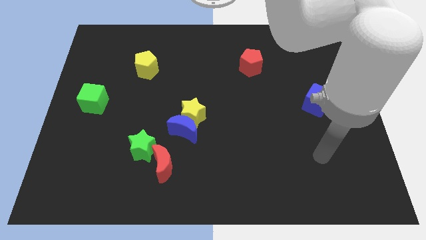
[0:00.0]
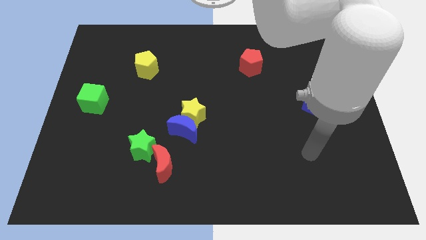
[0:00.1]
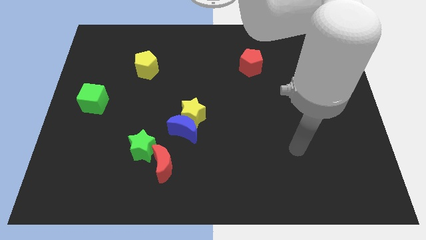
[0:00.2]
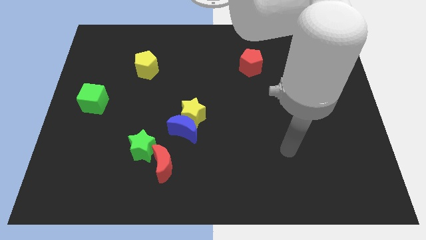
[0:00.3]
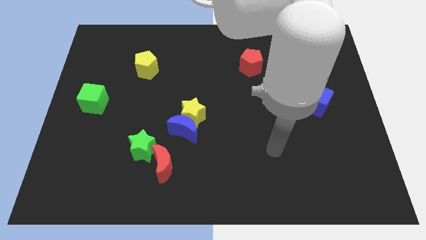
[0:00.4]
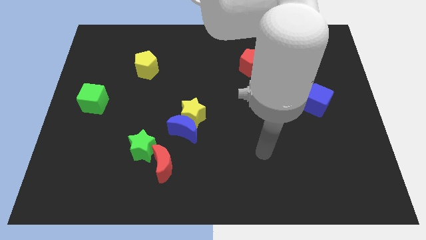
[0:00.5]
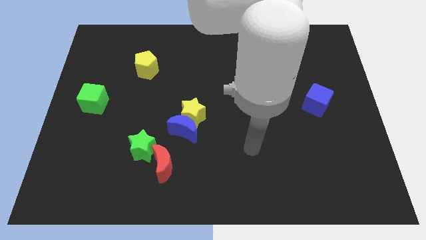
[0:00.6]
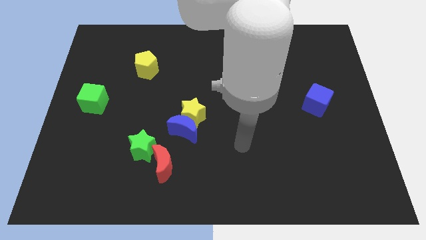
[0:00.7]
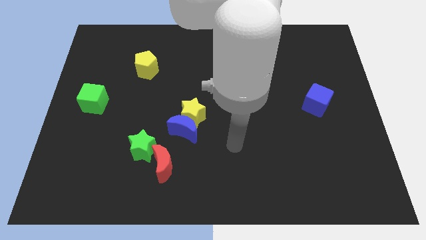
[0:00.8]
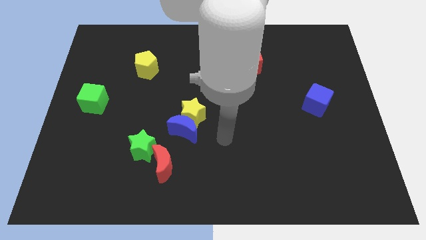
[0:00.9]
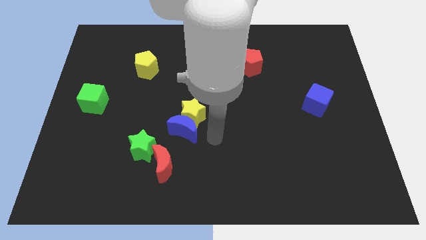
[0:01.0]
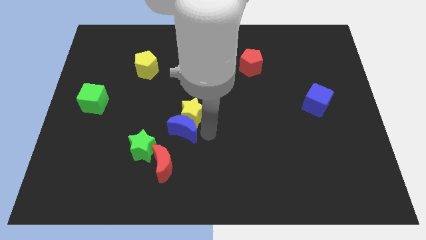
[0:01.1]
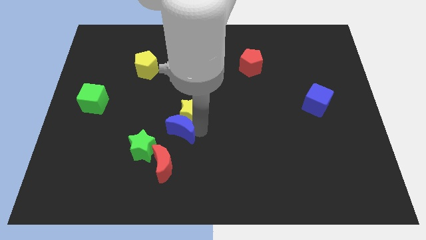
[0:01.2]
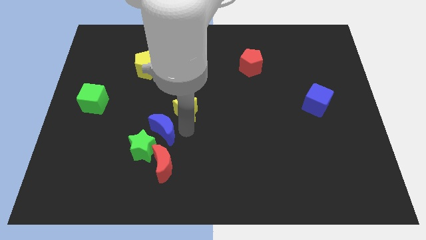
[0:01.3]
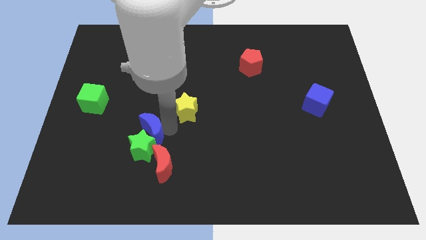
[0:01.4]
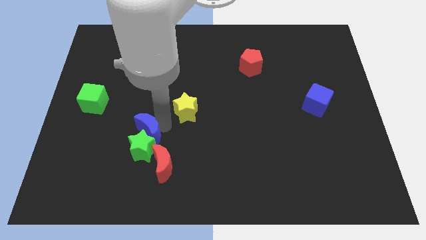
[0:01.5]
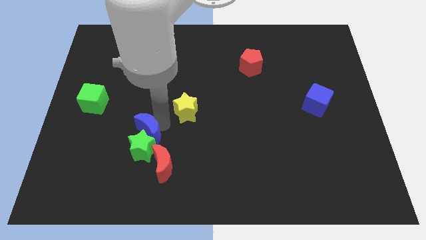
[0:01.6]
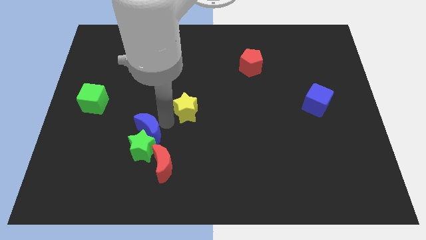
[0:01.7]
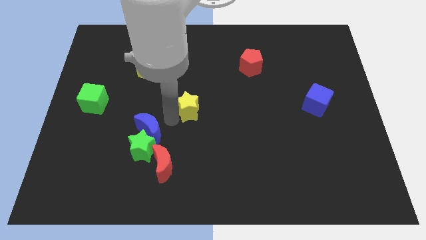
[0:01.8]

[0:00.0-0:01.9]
separate the yellow star from the blue moon

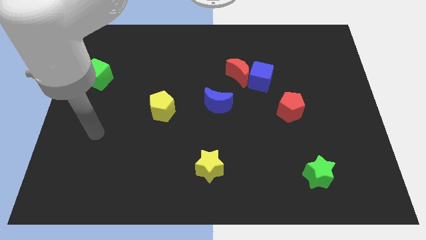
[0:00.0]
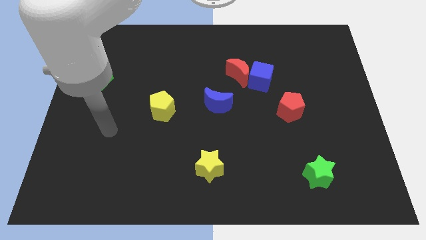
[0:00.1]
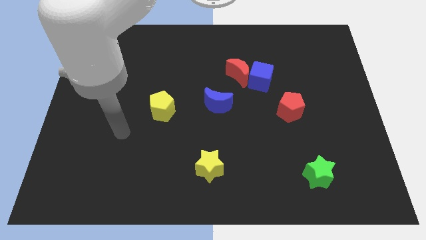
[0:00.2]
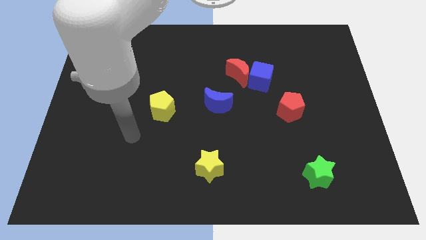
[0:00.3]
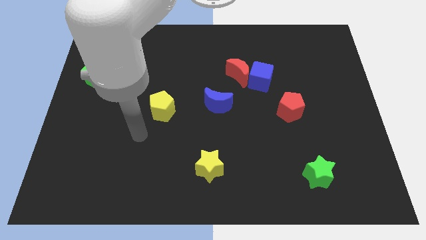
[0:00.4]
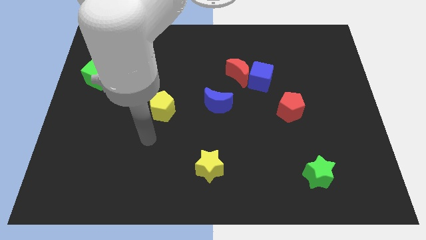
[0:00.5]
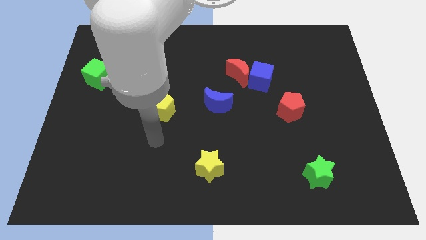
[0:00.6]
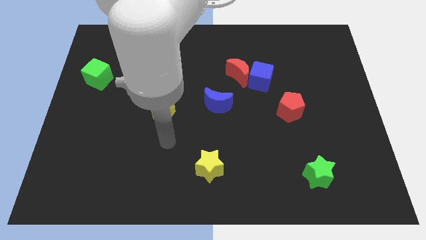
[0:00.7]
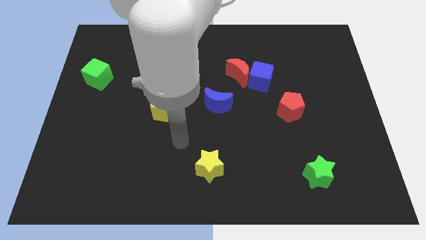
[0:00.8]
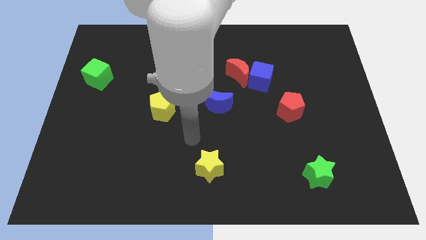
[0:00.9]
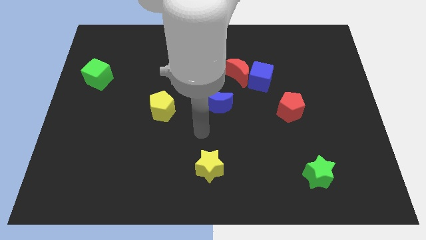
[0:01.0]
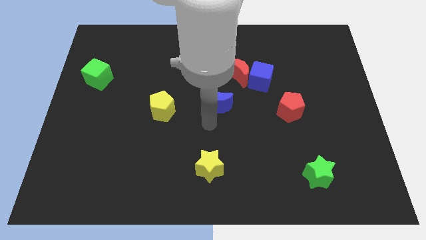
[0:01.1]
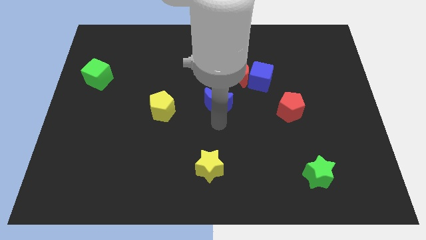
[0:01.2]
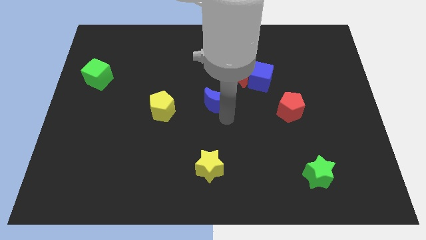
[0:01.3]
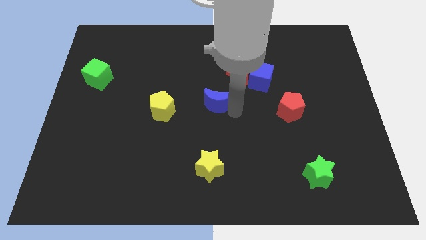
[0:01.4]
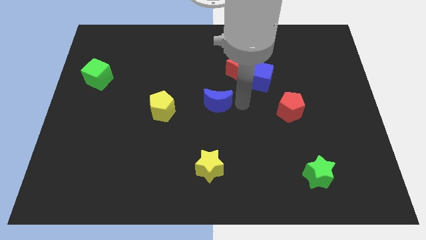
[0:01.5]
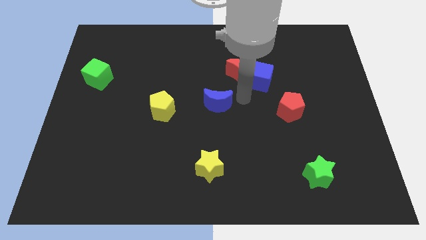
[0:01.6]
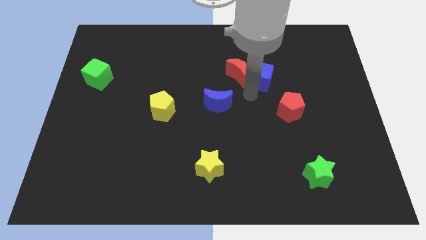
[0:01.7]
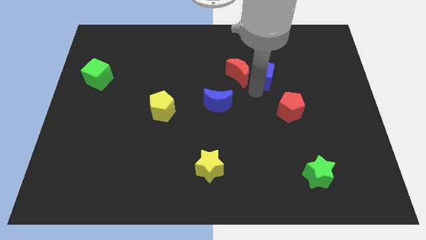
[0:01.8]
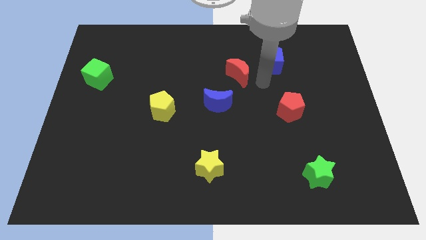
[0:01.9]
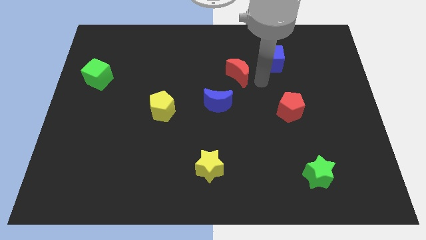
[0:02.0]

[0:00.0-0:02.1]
pull the red moon apart from the blue cube

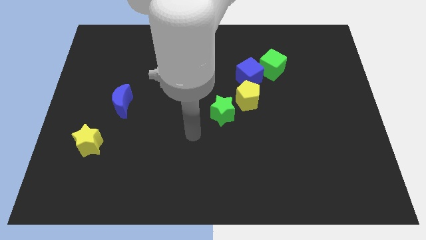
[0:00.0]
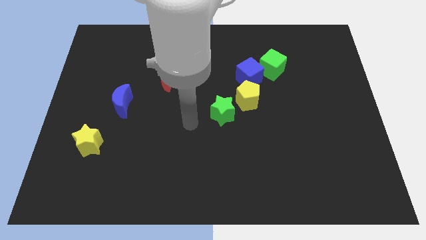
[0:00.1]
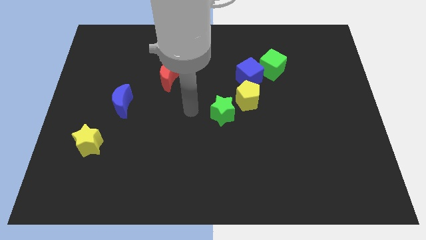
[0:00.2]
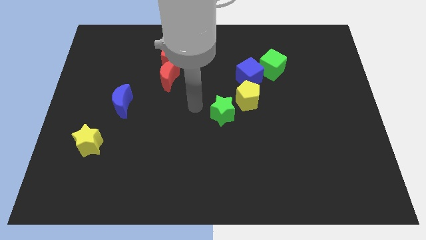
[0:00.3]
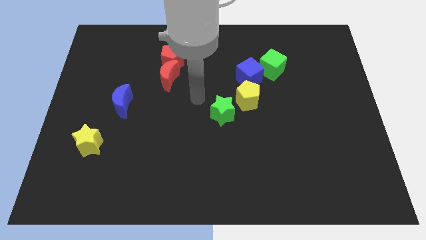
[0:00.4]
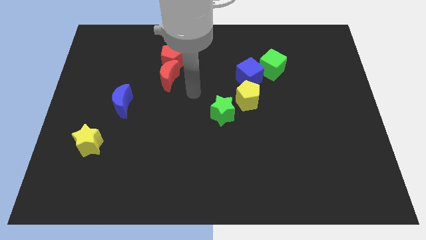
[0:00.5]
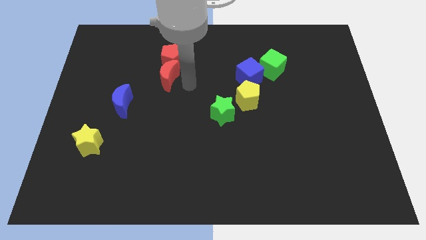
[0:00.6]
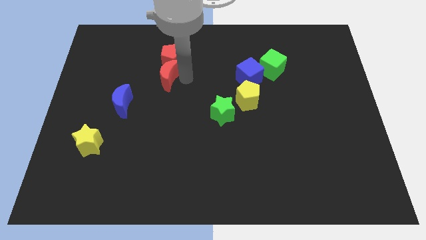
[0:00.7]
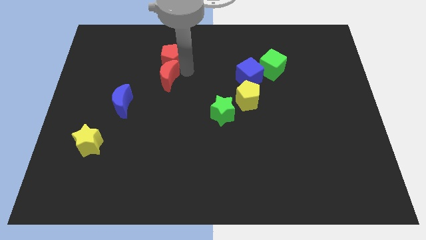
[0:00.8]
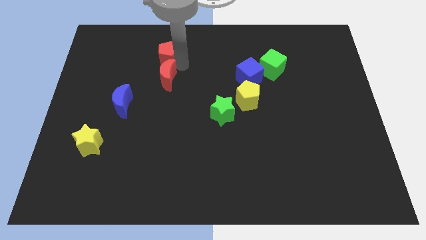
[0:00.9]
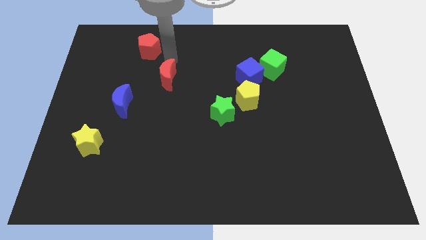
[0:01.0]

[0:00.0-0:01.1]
move the red moon away from the red pentagon

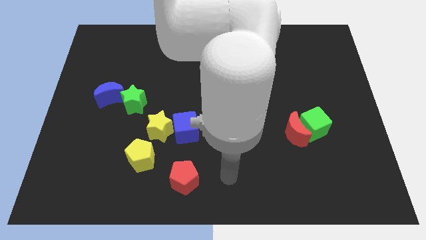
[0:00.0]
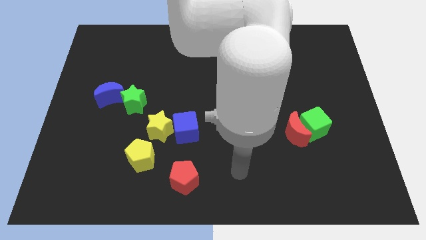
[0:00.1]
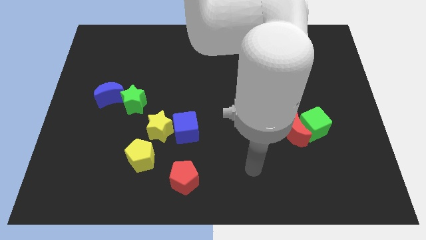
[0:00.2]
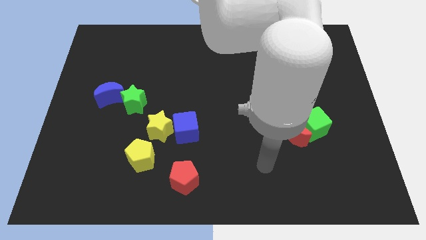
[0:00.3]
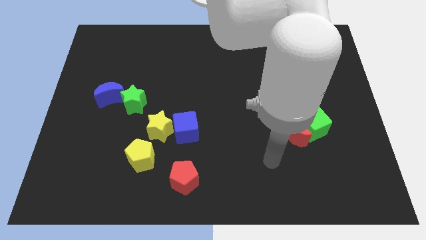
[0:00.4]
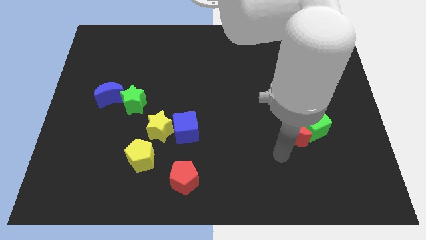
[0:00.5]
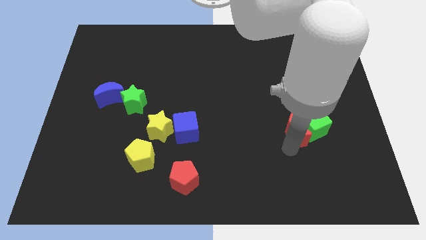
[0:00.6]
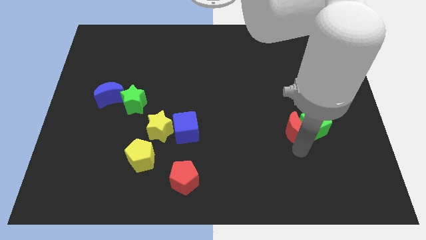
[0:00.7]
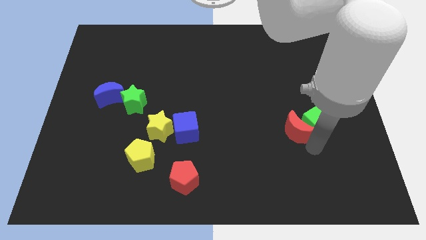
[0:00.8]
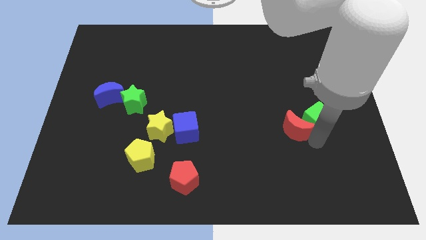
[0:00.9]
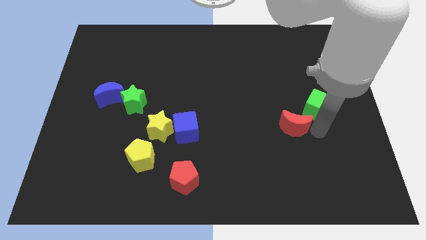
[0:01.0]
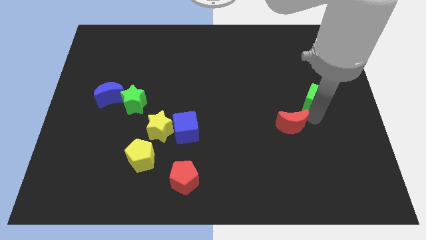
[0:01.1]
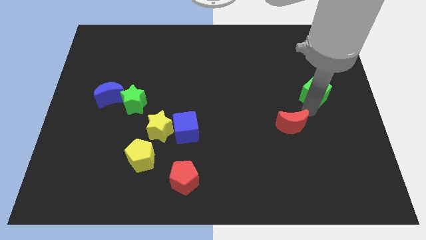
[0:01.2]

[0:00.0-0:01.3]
separate the red moon from the green cube

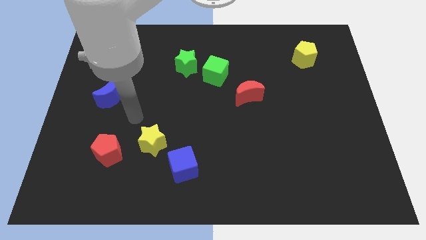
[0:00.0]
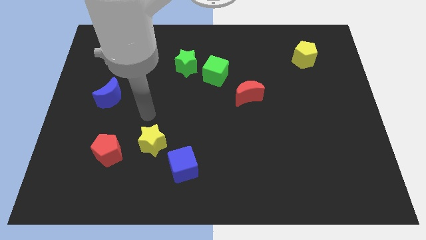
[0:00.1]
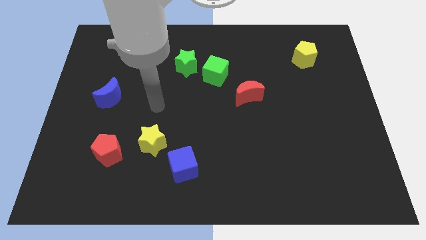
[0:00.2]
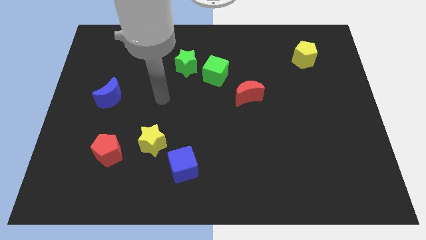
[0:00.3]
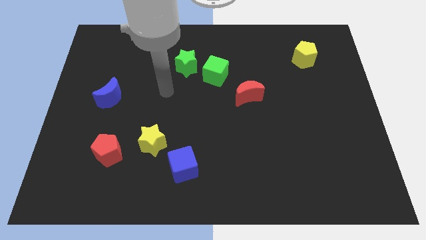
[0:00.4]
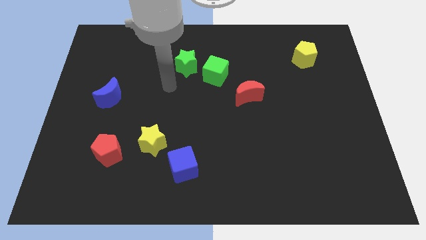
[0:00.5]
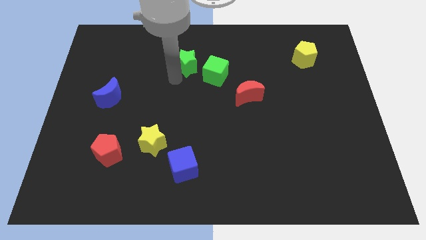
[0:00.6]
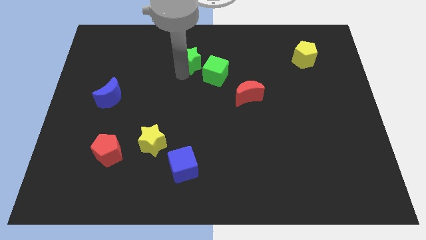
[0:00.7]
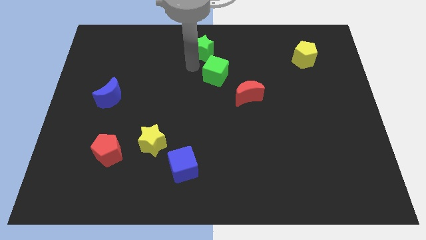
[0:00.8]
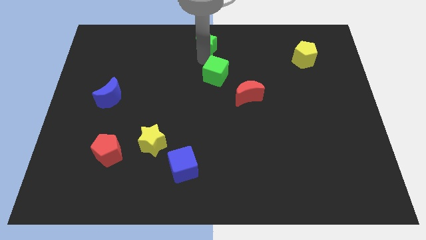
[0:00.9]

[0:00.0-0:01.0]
pull the green cube apart from the green star

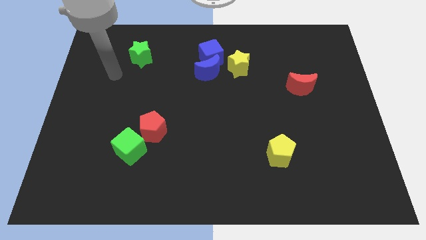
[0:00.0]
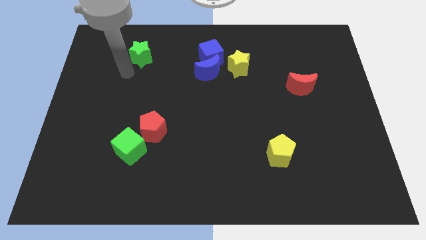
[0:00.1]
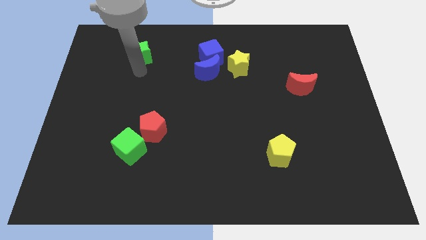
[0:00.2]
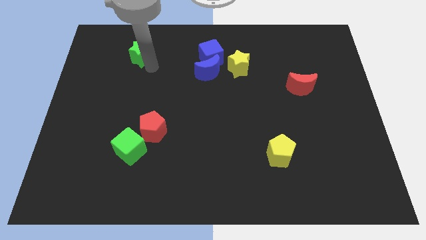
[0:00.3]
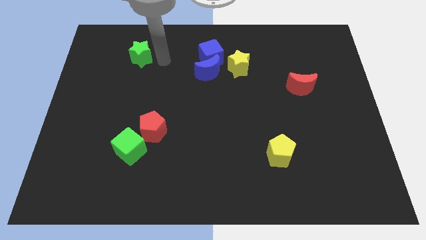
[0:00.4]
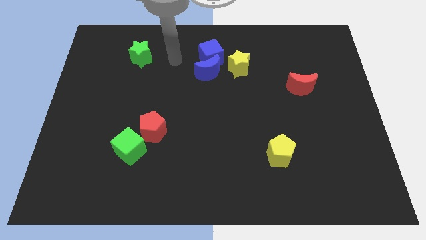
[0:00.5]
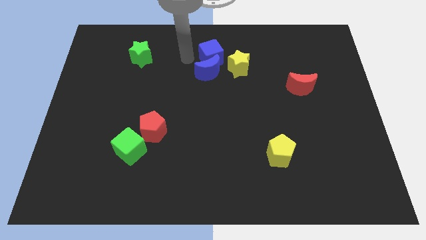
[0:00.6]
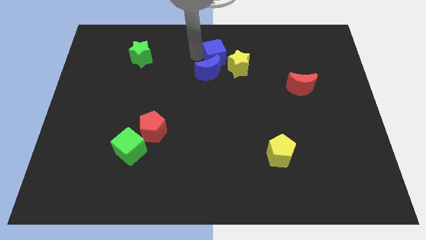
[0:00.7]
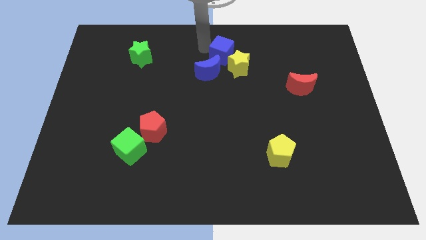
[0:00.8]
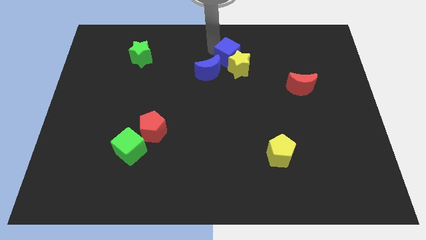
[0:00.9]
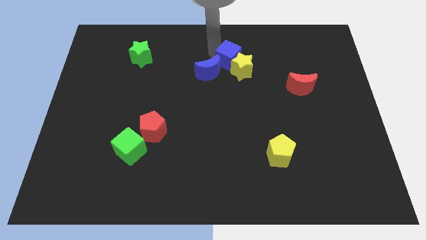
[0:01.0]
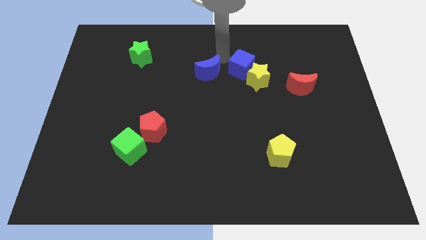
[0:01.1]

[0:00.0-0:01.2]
pull the blue moon apart from the blue cube and yellow star

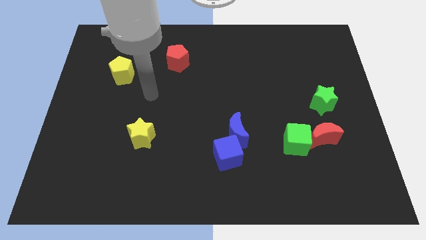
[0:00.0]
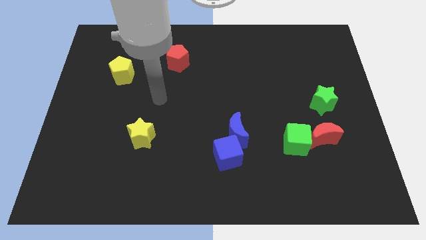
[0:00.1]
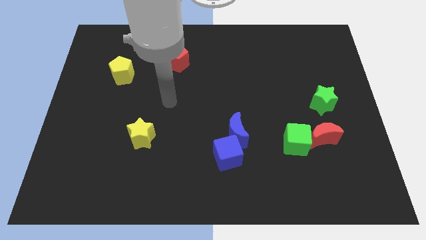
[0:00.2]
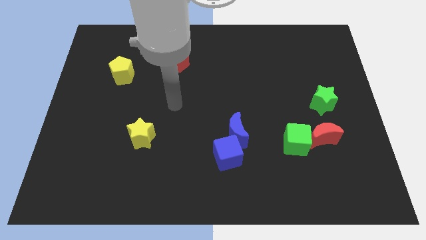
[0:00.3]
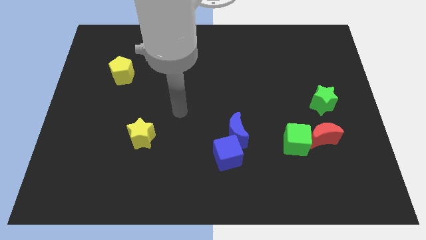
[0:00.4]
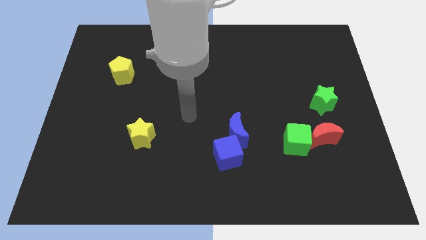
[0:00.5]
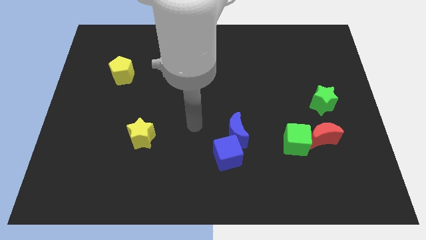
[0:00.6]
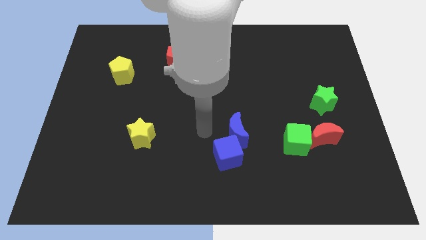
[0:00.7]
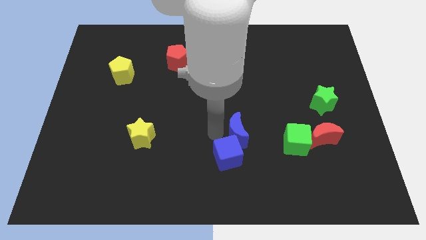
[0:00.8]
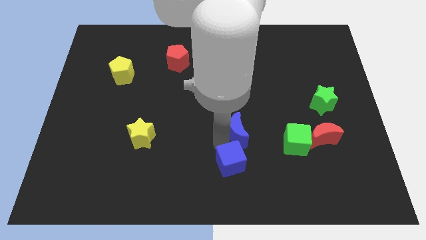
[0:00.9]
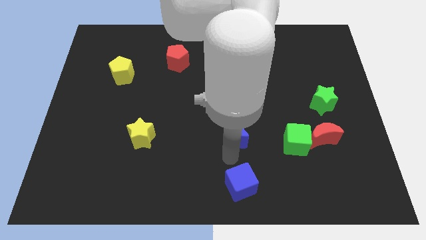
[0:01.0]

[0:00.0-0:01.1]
move the blue moon away from the blue cube
